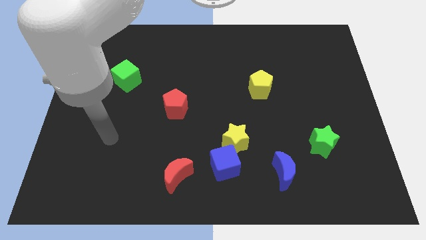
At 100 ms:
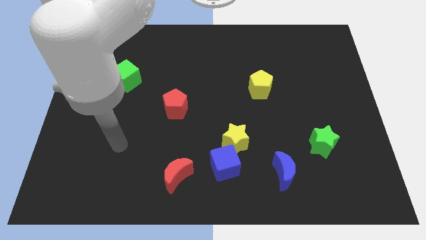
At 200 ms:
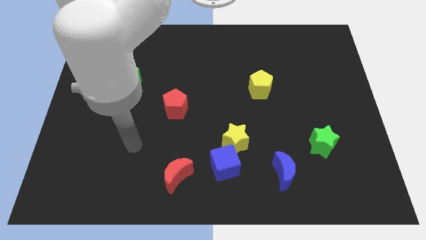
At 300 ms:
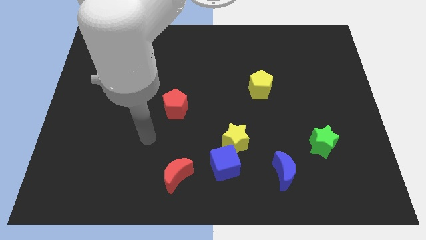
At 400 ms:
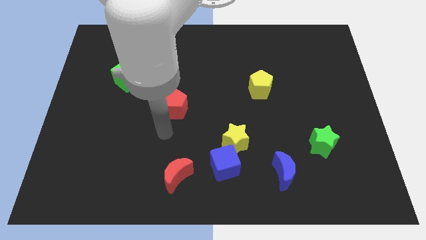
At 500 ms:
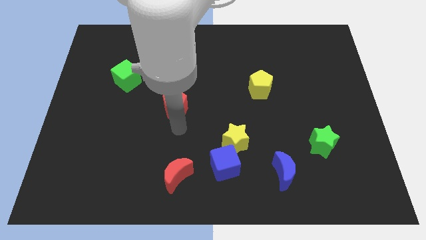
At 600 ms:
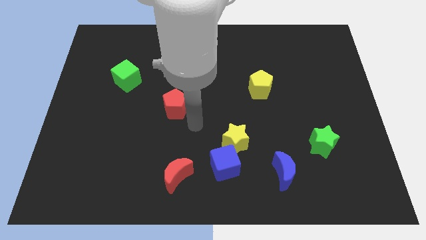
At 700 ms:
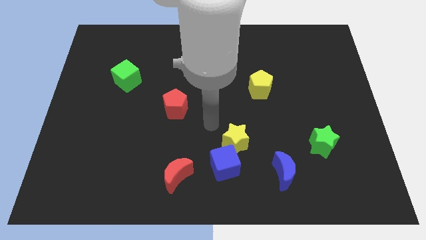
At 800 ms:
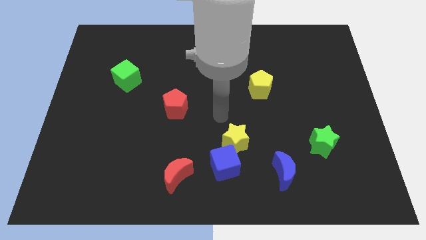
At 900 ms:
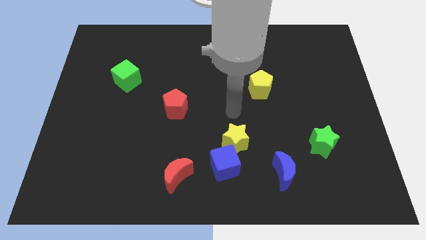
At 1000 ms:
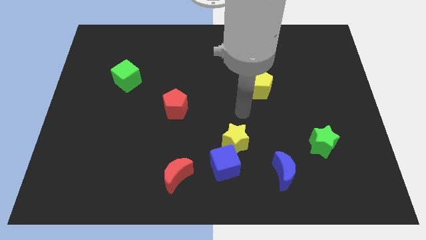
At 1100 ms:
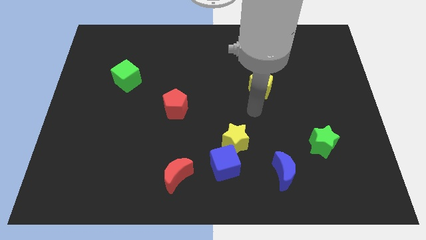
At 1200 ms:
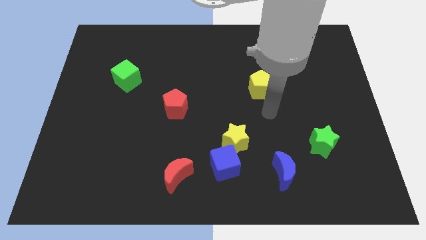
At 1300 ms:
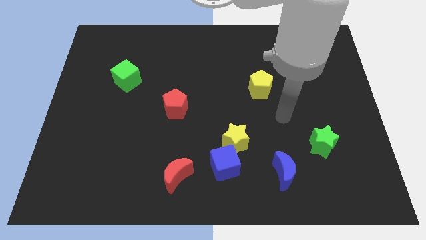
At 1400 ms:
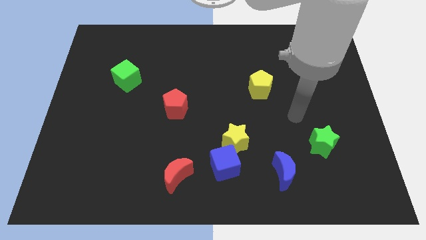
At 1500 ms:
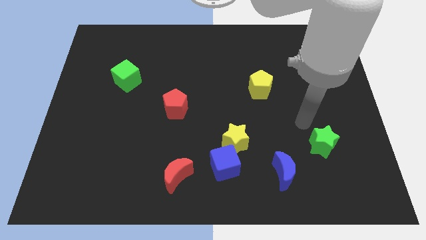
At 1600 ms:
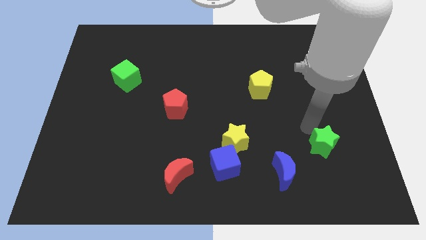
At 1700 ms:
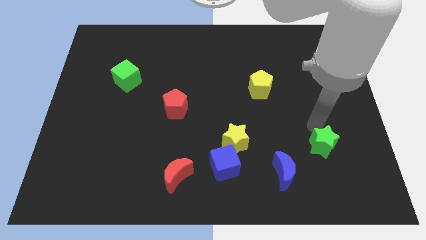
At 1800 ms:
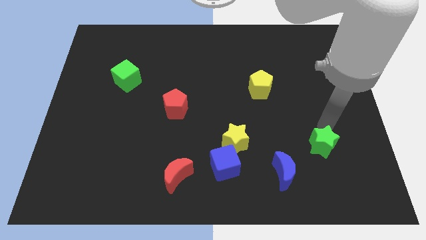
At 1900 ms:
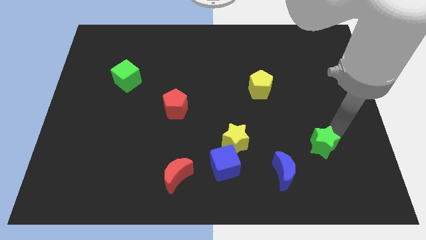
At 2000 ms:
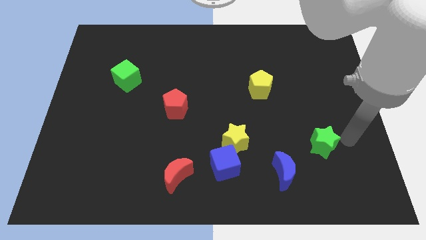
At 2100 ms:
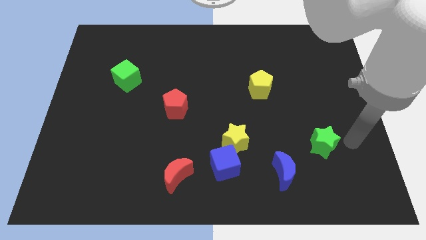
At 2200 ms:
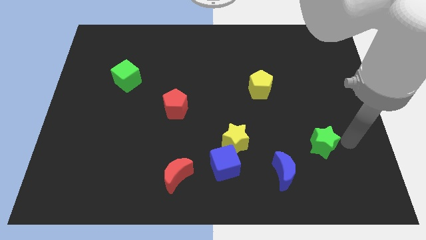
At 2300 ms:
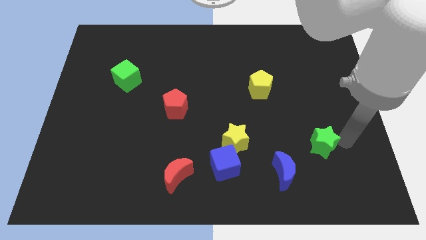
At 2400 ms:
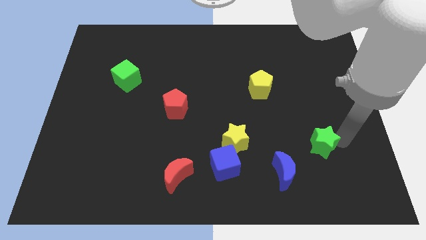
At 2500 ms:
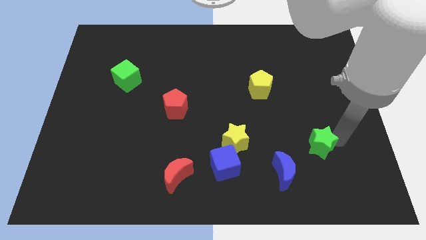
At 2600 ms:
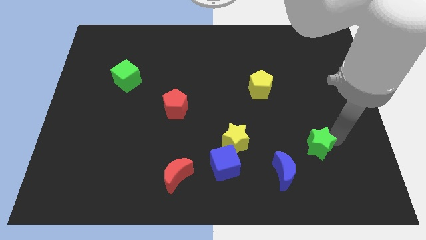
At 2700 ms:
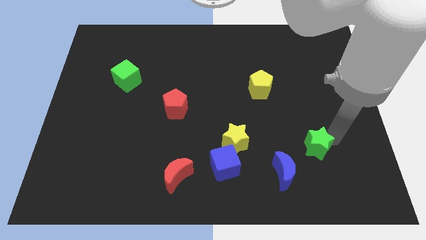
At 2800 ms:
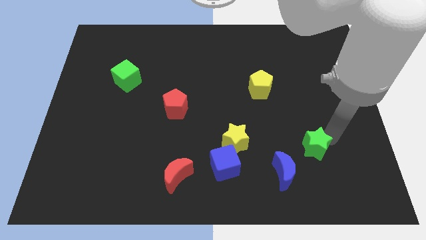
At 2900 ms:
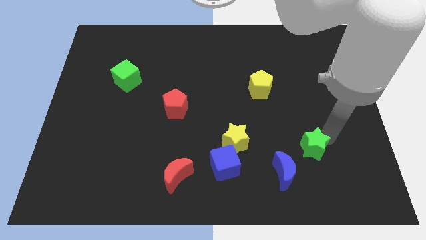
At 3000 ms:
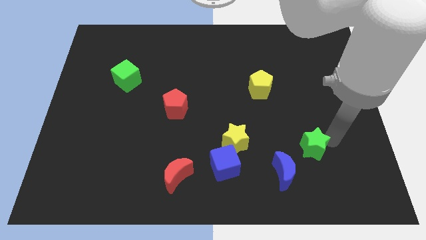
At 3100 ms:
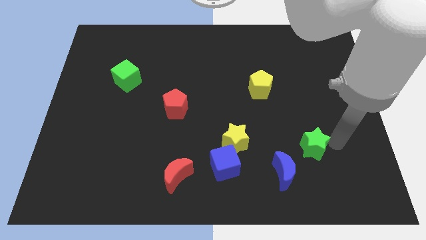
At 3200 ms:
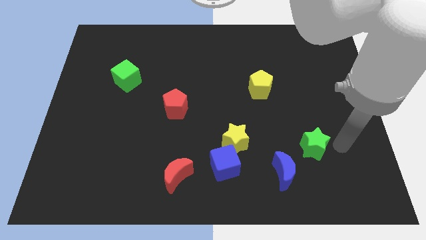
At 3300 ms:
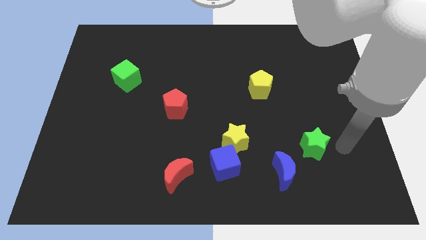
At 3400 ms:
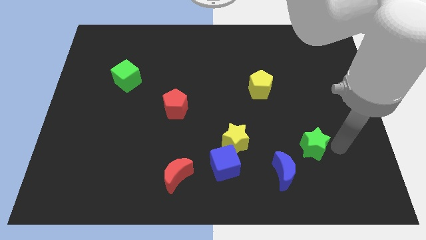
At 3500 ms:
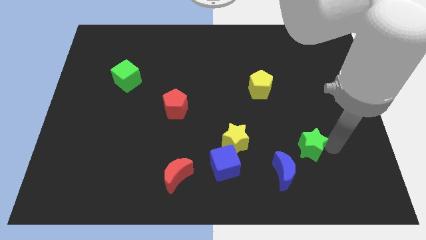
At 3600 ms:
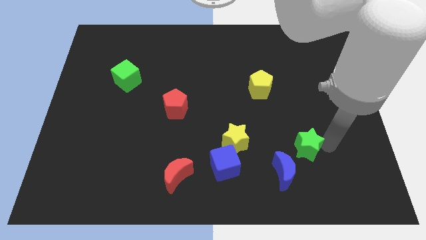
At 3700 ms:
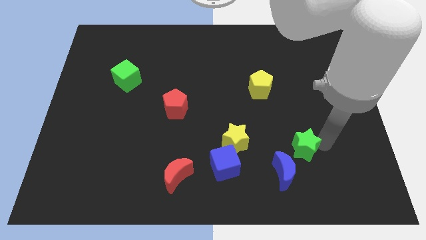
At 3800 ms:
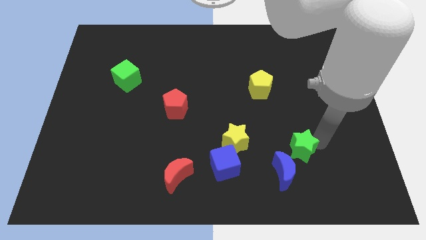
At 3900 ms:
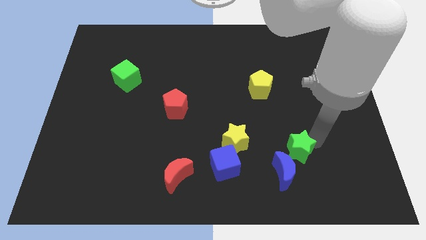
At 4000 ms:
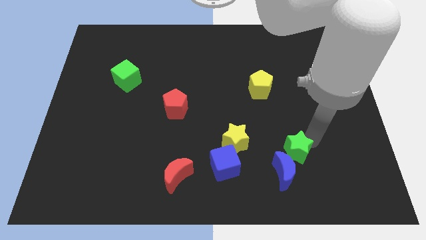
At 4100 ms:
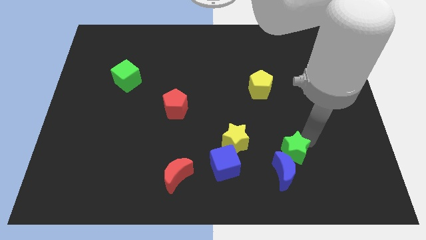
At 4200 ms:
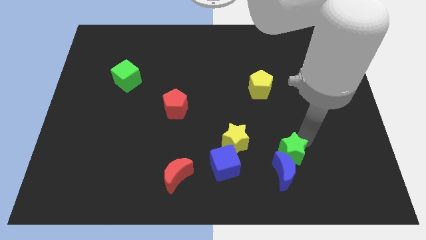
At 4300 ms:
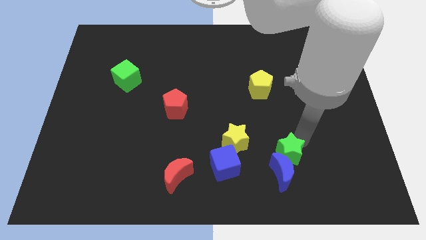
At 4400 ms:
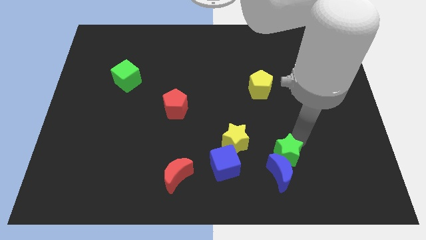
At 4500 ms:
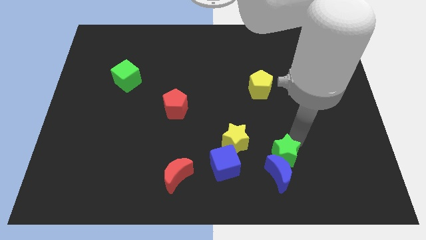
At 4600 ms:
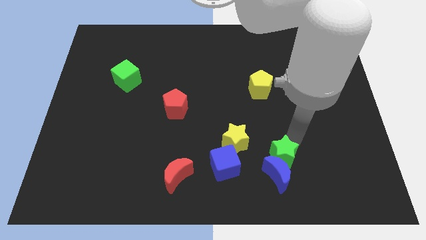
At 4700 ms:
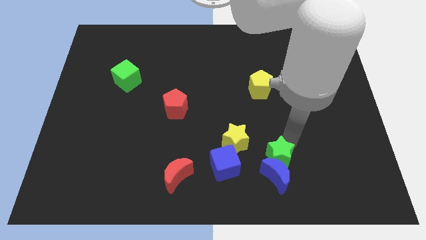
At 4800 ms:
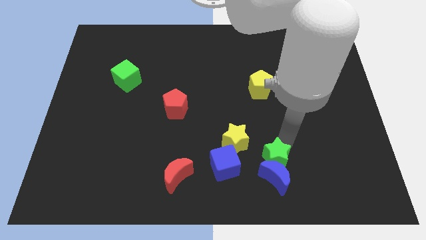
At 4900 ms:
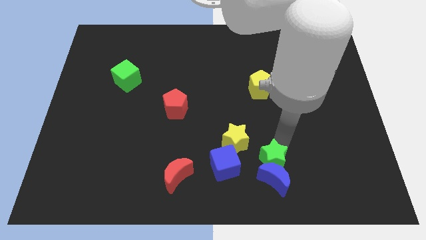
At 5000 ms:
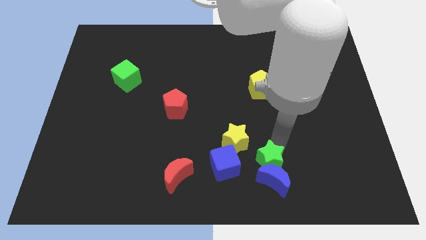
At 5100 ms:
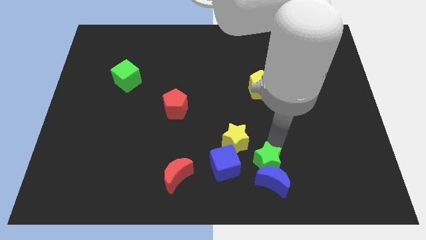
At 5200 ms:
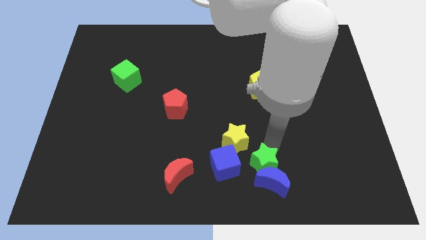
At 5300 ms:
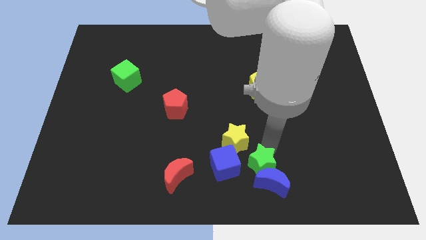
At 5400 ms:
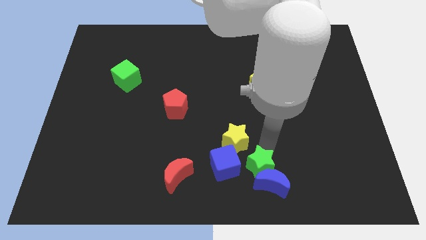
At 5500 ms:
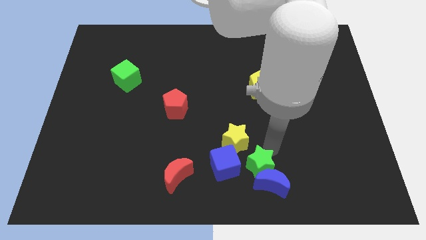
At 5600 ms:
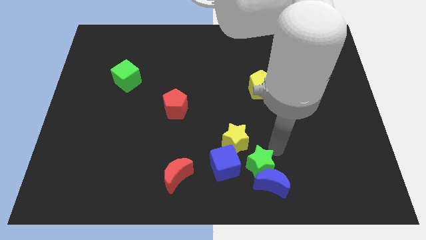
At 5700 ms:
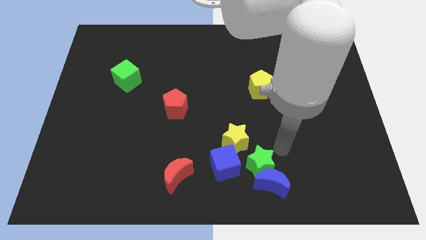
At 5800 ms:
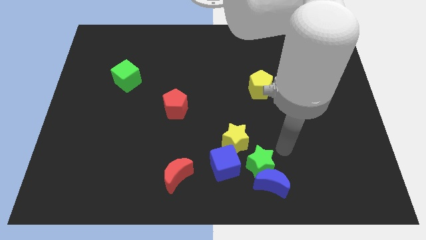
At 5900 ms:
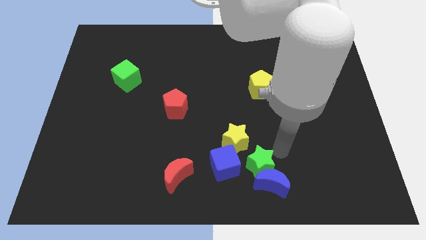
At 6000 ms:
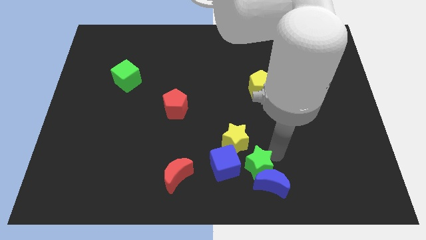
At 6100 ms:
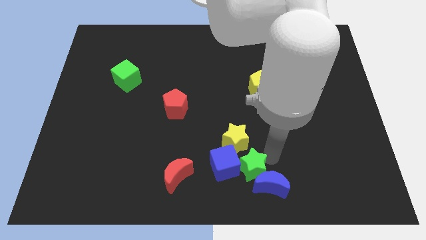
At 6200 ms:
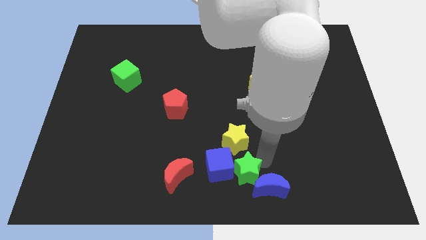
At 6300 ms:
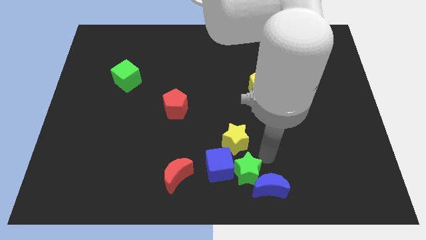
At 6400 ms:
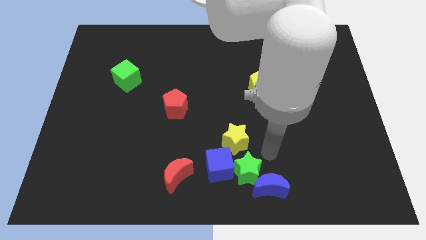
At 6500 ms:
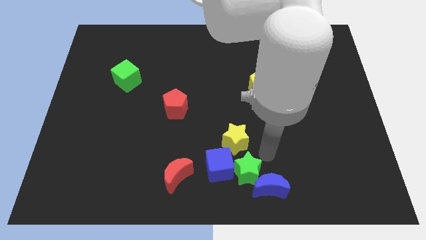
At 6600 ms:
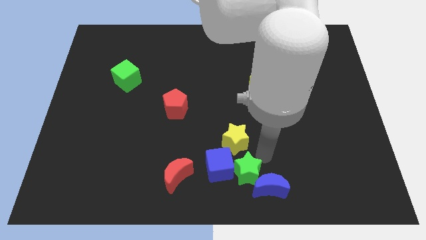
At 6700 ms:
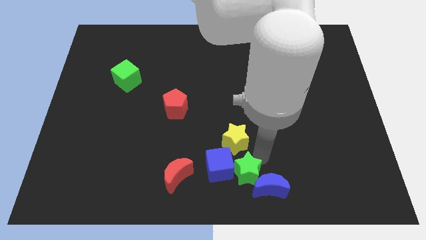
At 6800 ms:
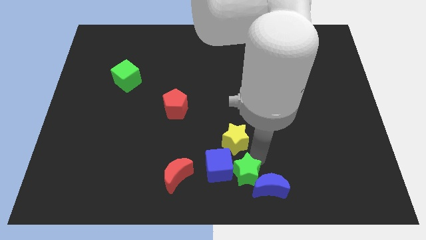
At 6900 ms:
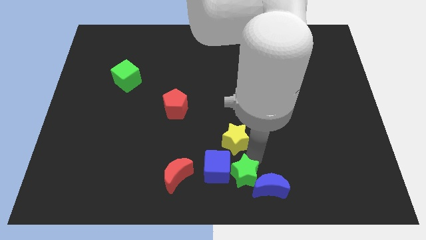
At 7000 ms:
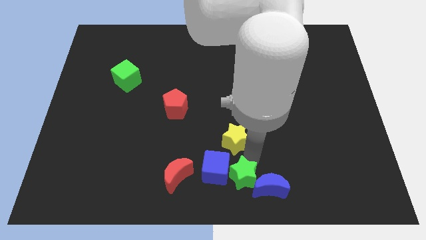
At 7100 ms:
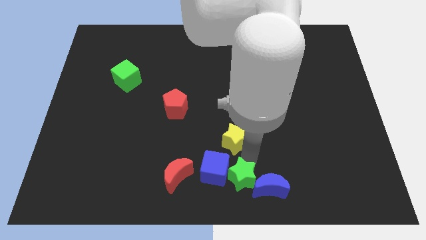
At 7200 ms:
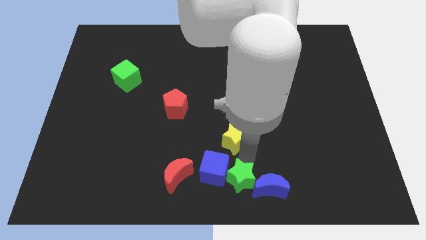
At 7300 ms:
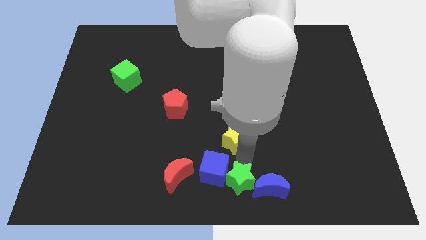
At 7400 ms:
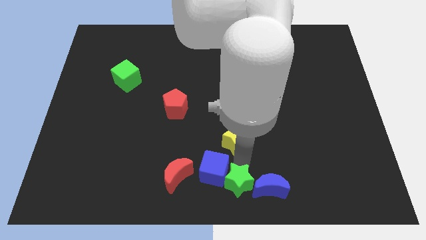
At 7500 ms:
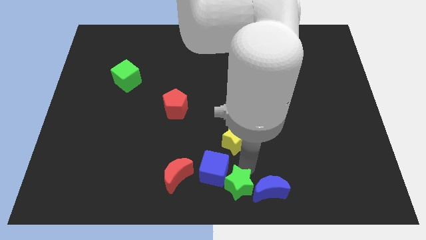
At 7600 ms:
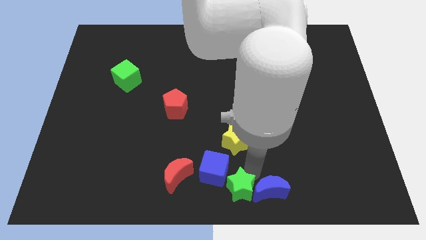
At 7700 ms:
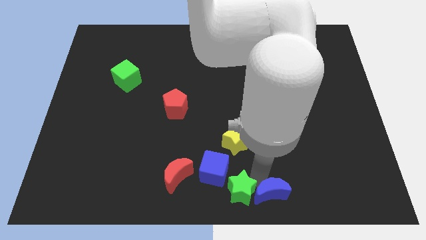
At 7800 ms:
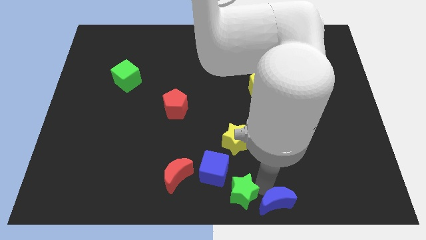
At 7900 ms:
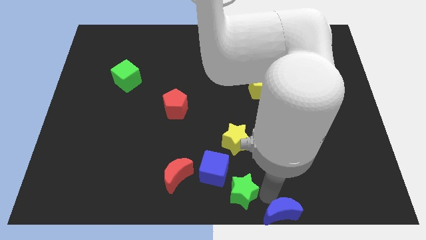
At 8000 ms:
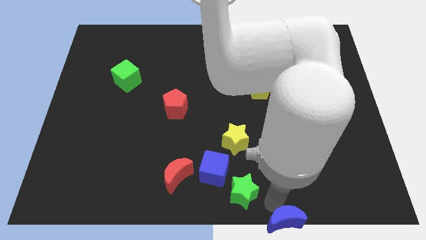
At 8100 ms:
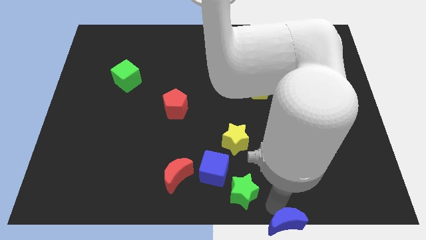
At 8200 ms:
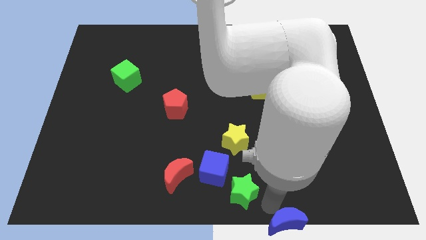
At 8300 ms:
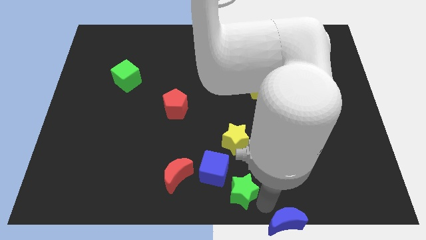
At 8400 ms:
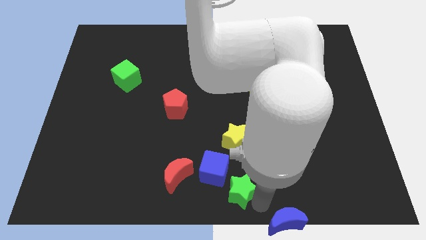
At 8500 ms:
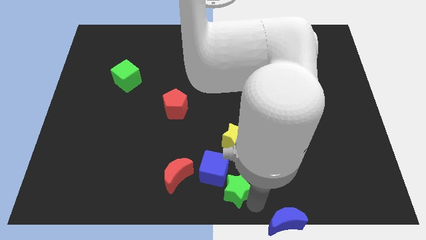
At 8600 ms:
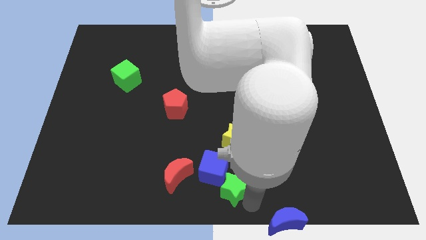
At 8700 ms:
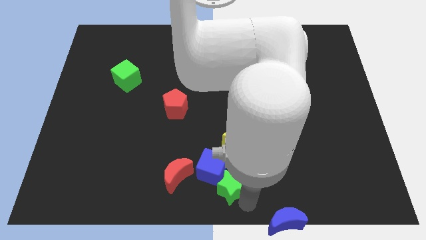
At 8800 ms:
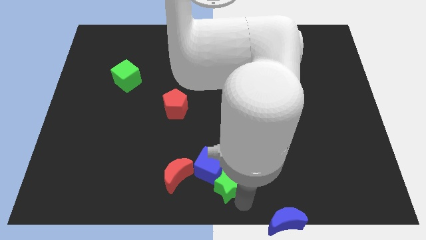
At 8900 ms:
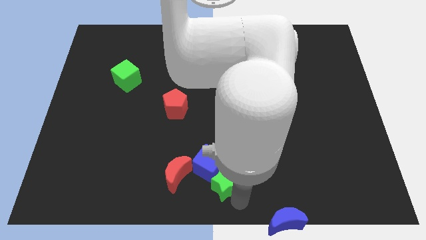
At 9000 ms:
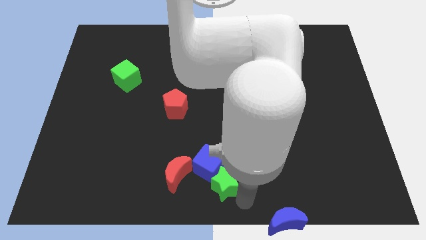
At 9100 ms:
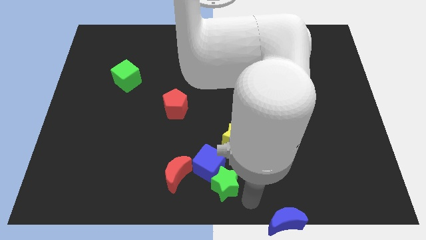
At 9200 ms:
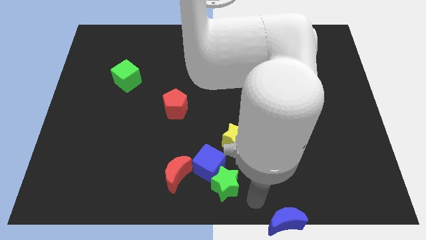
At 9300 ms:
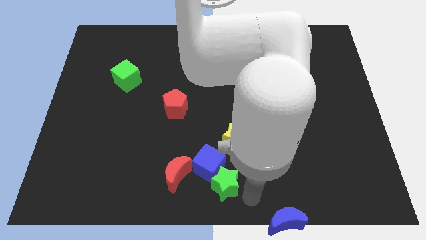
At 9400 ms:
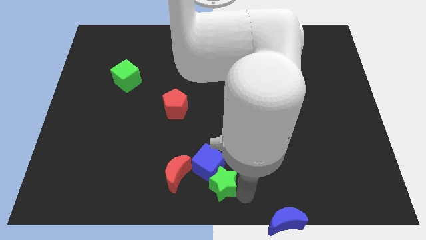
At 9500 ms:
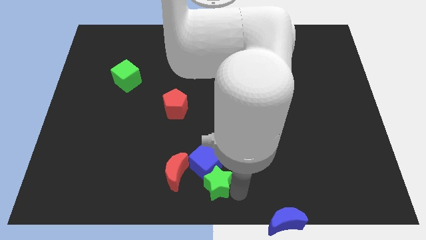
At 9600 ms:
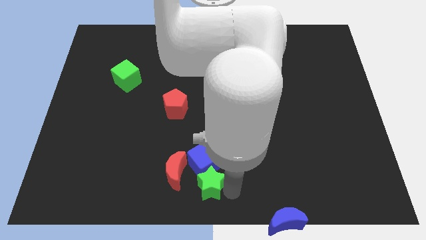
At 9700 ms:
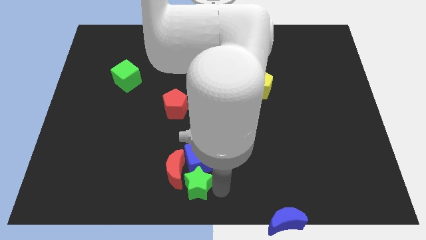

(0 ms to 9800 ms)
put the green star close to the red moon
